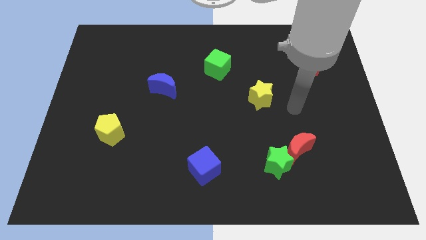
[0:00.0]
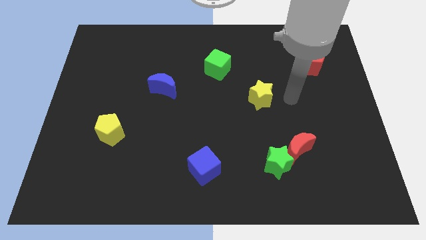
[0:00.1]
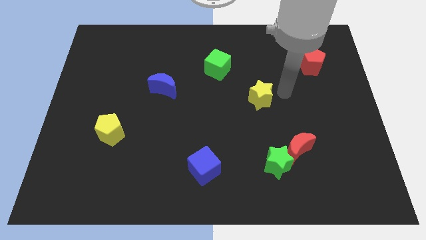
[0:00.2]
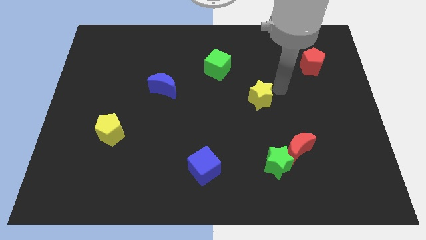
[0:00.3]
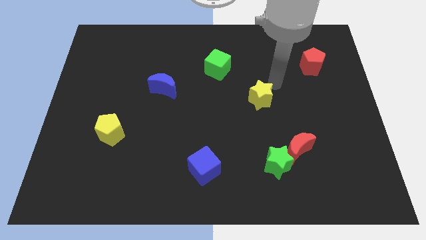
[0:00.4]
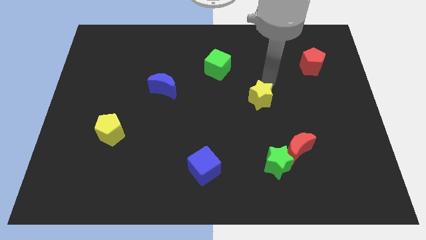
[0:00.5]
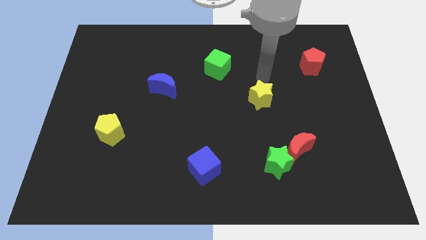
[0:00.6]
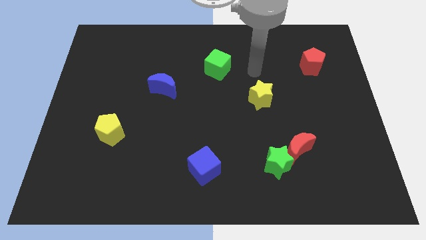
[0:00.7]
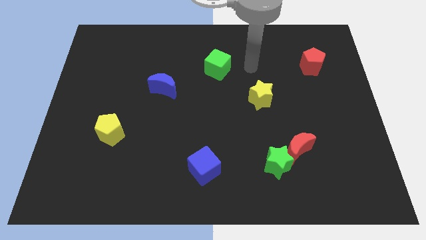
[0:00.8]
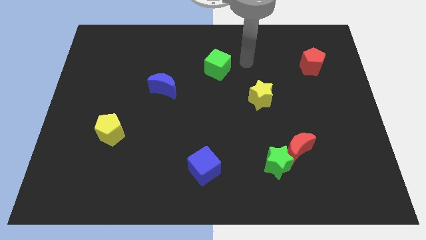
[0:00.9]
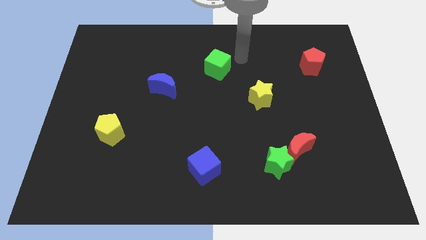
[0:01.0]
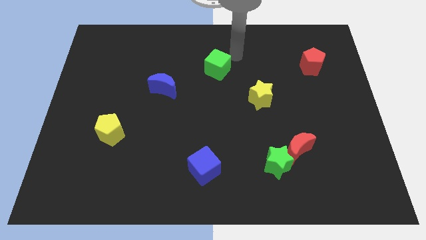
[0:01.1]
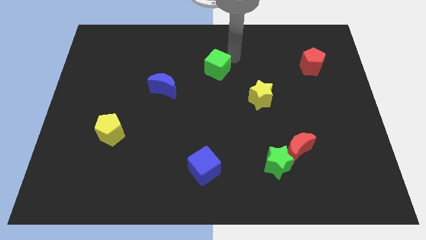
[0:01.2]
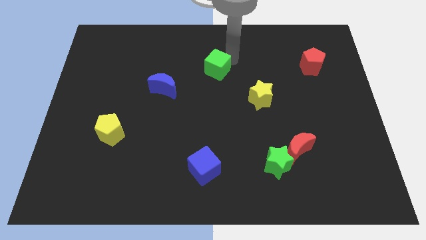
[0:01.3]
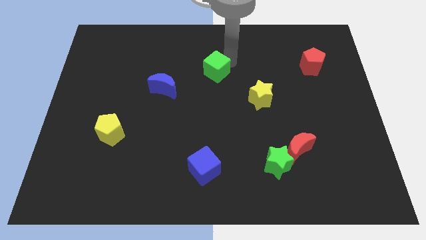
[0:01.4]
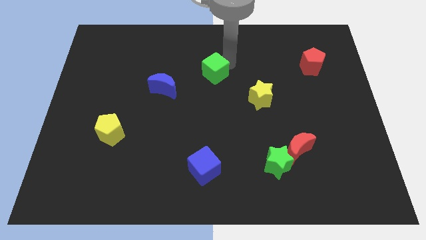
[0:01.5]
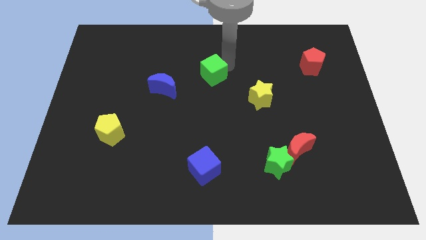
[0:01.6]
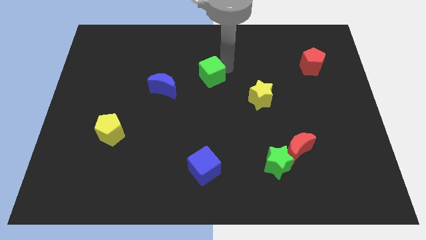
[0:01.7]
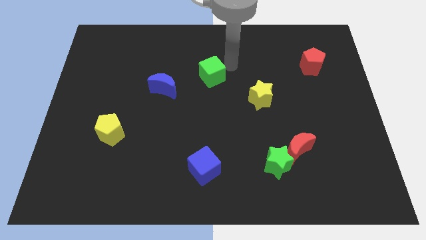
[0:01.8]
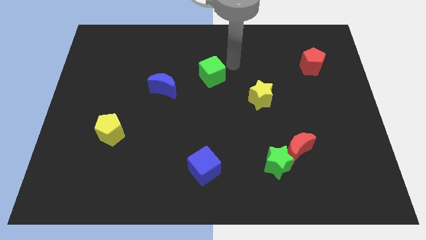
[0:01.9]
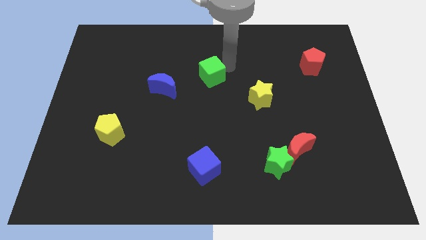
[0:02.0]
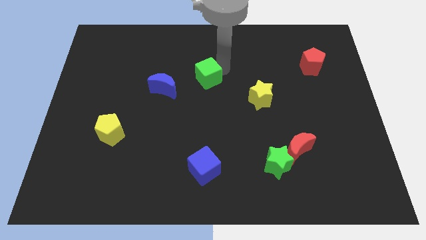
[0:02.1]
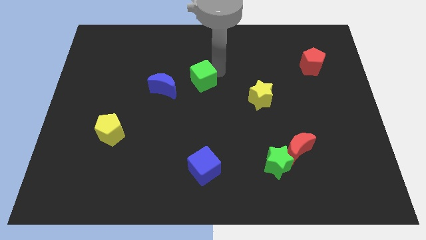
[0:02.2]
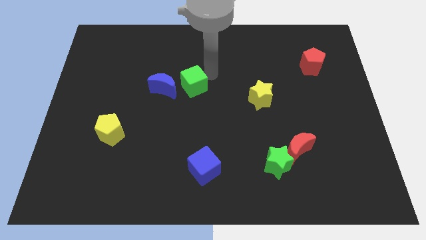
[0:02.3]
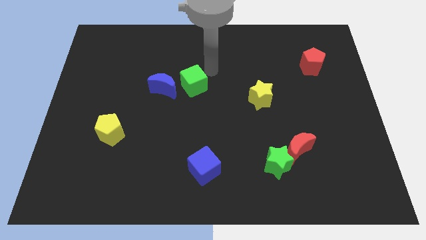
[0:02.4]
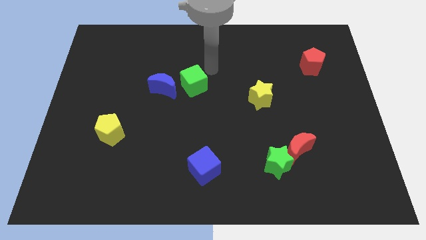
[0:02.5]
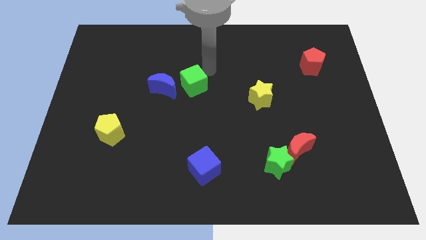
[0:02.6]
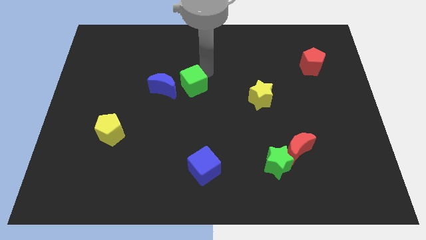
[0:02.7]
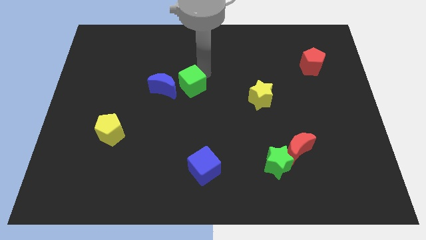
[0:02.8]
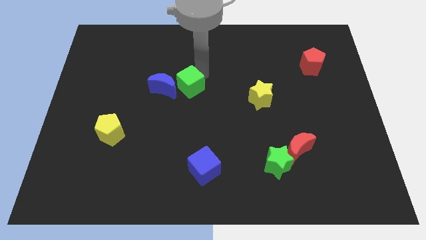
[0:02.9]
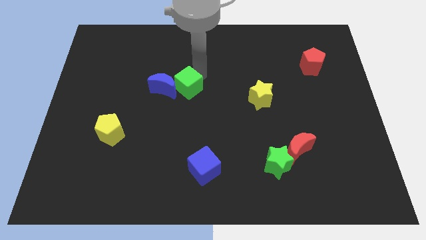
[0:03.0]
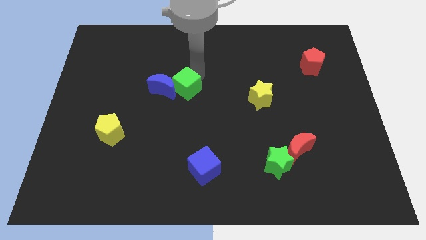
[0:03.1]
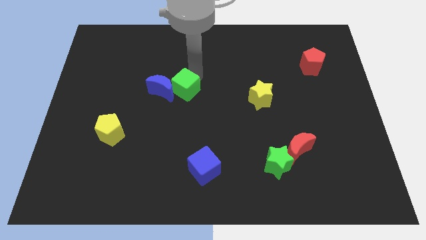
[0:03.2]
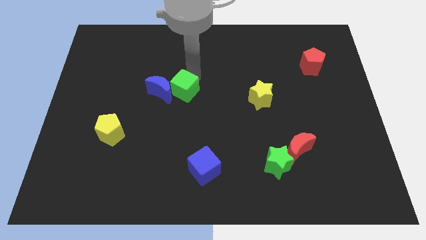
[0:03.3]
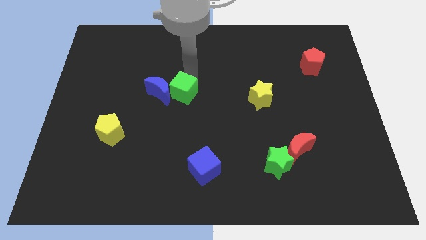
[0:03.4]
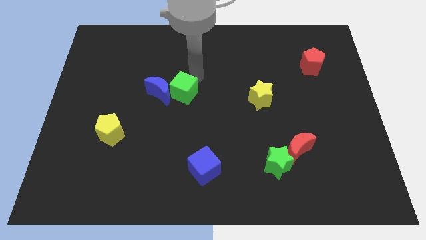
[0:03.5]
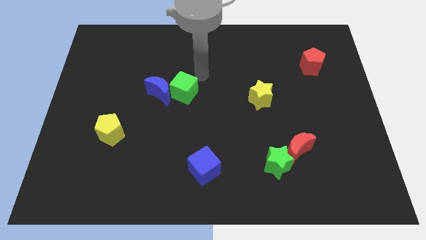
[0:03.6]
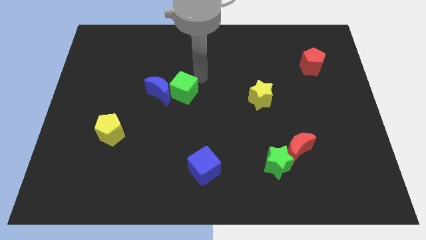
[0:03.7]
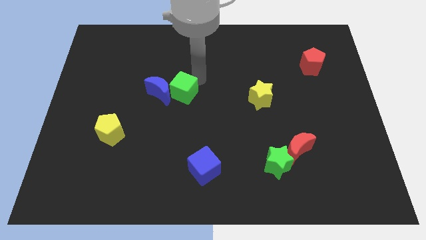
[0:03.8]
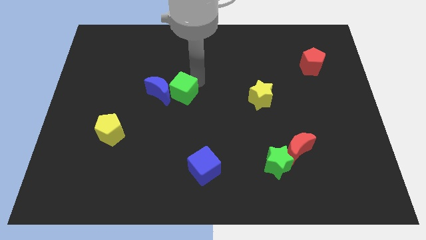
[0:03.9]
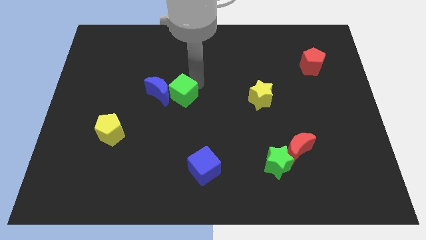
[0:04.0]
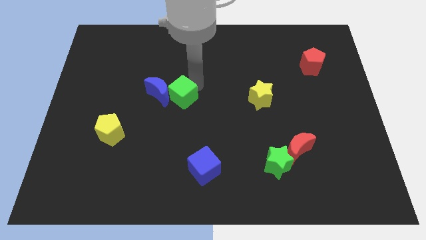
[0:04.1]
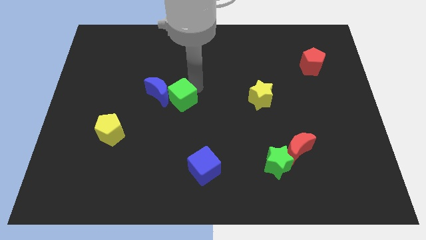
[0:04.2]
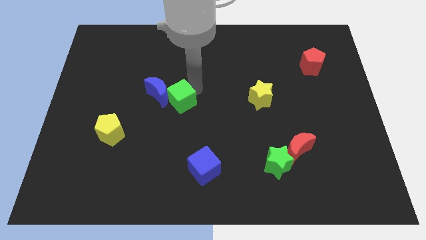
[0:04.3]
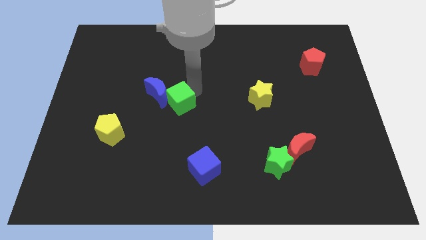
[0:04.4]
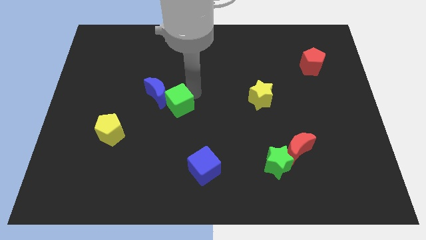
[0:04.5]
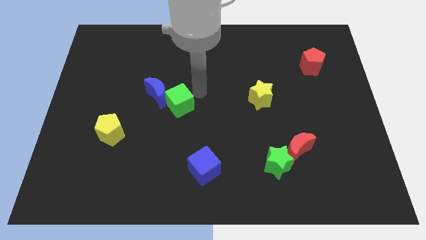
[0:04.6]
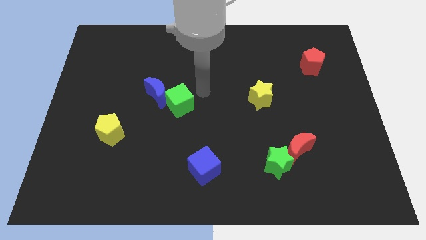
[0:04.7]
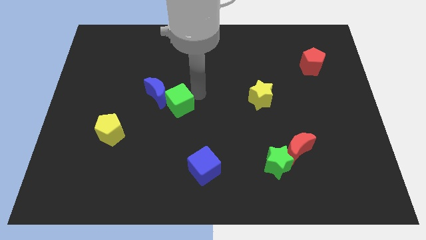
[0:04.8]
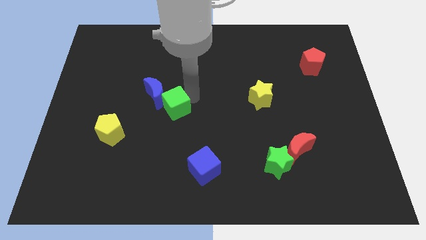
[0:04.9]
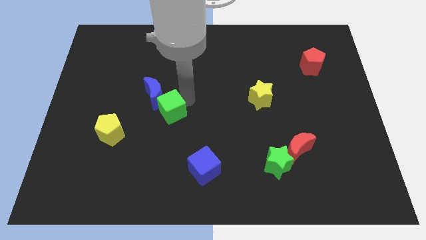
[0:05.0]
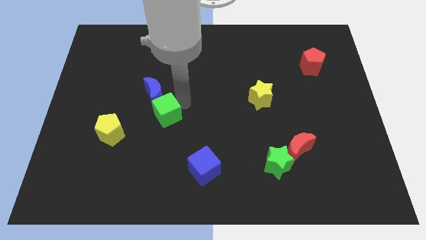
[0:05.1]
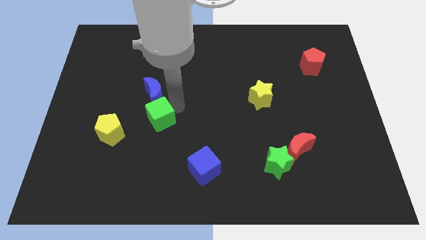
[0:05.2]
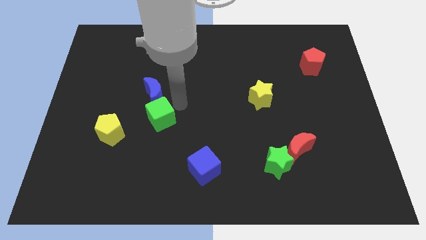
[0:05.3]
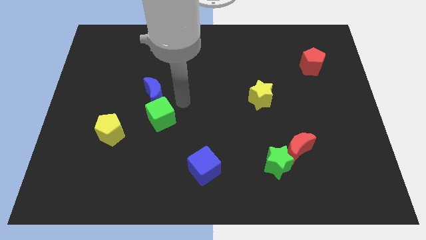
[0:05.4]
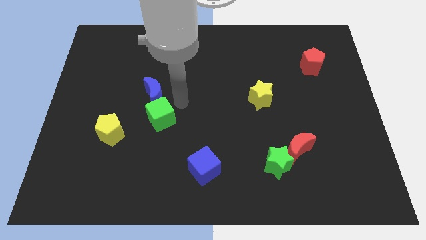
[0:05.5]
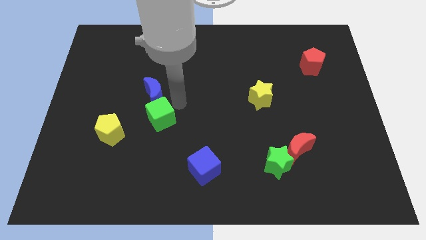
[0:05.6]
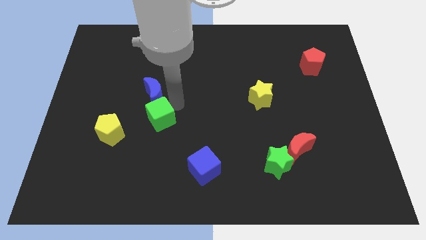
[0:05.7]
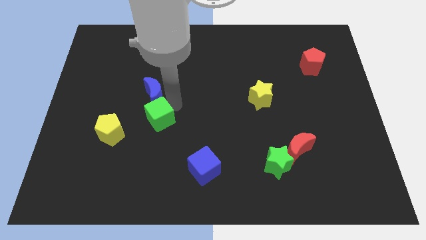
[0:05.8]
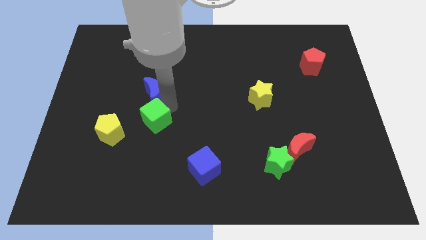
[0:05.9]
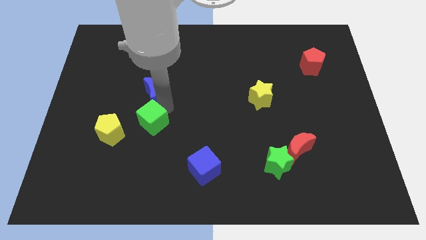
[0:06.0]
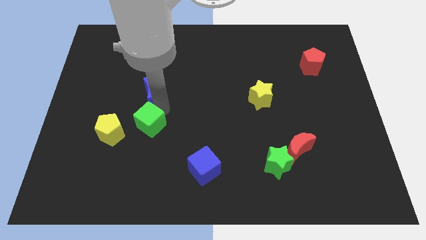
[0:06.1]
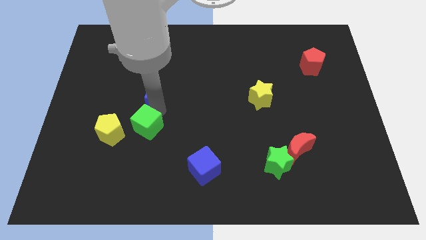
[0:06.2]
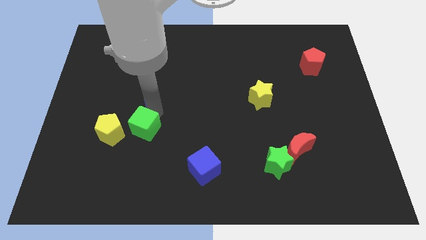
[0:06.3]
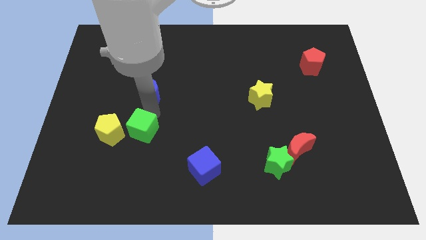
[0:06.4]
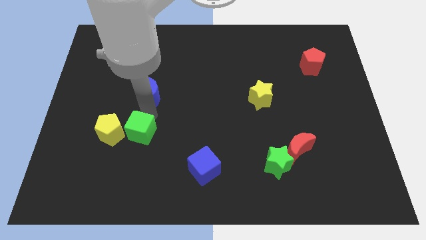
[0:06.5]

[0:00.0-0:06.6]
put the green cube diagonally down and to the right of the yellow pentagon
